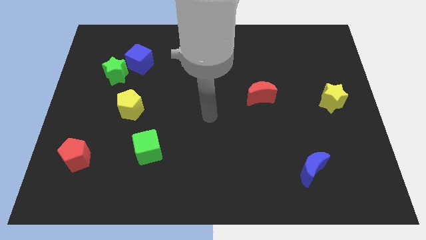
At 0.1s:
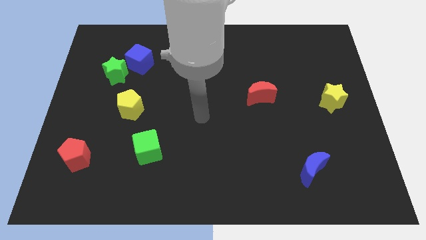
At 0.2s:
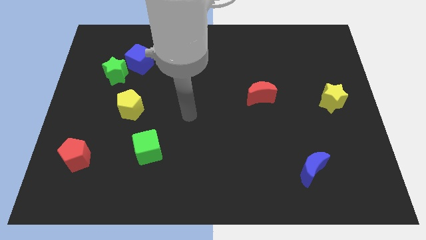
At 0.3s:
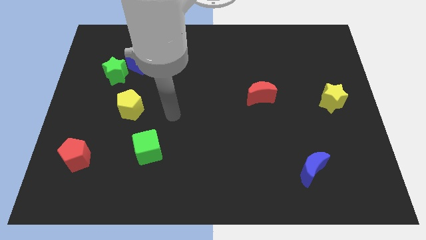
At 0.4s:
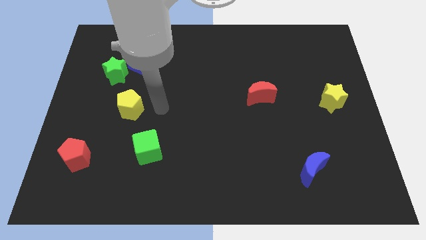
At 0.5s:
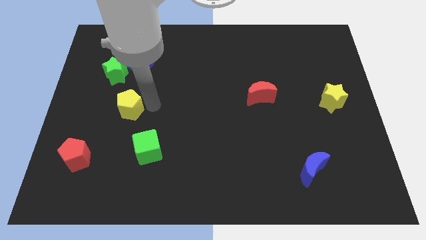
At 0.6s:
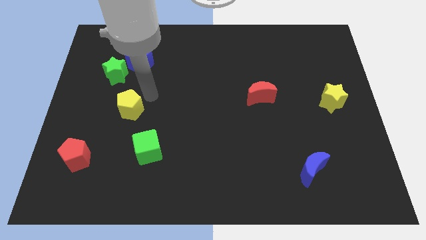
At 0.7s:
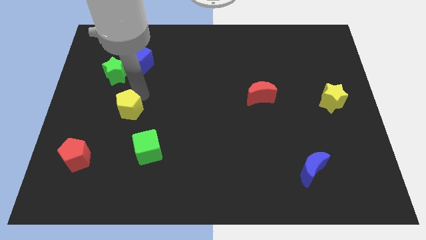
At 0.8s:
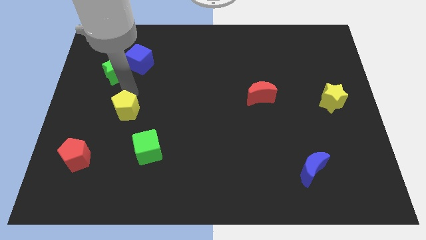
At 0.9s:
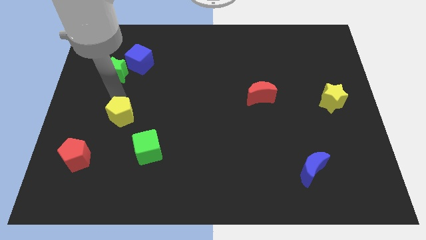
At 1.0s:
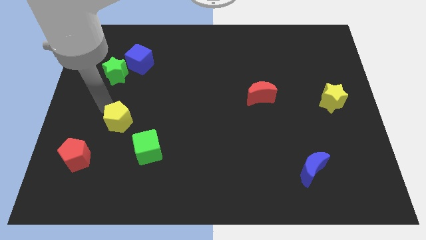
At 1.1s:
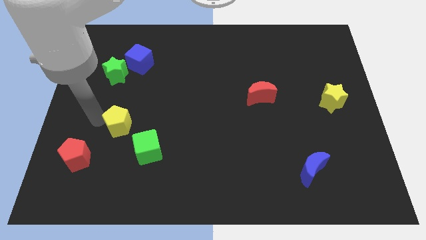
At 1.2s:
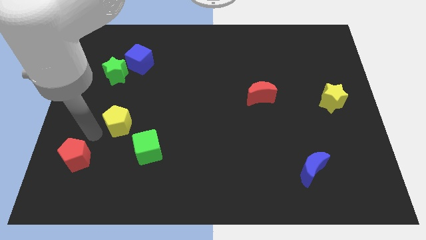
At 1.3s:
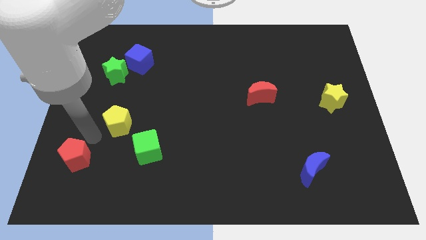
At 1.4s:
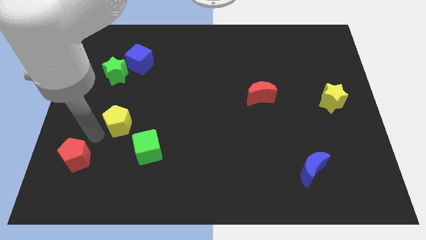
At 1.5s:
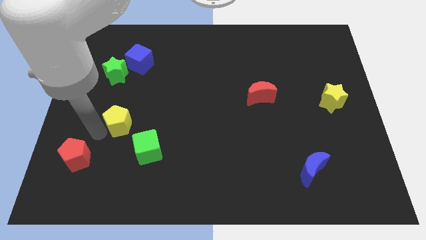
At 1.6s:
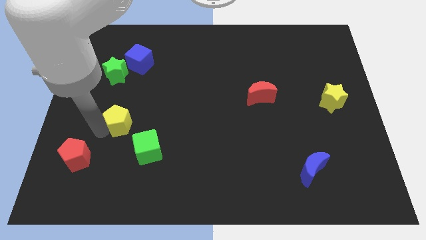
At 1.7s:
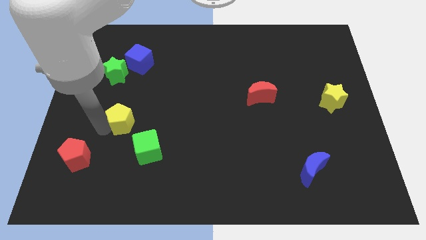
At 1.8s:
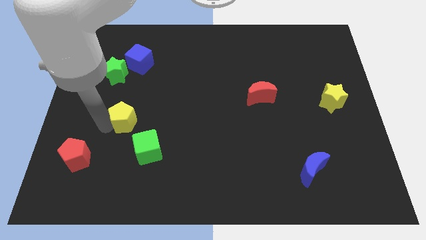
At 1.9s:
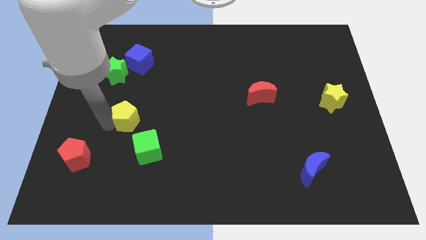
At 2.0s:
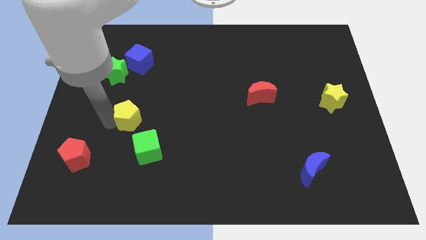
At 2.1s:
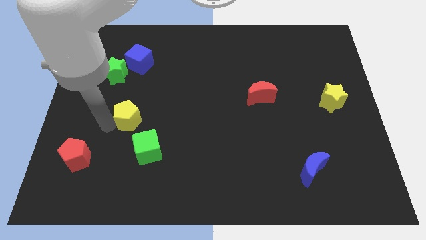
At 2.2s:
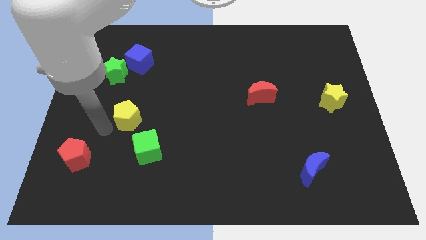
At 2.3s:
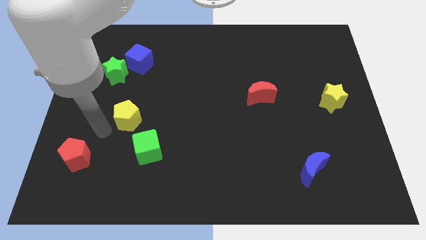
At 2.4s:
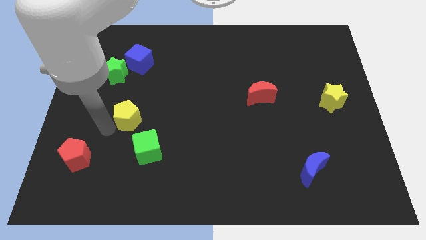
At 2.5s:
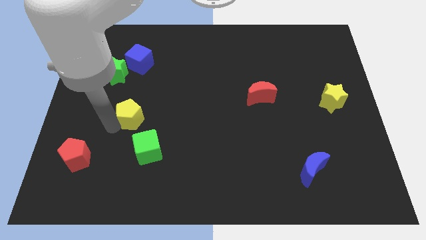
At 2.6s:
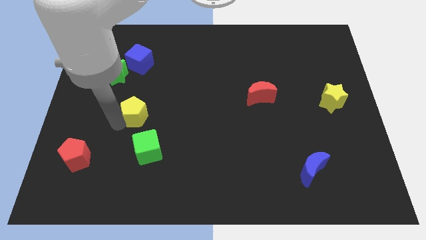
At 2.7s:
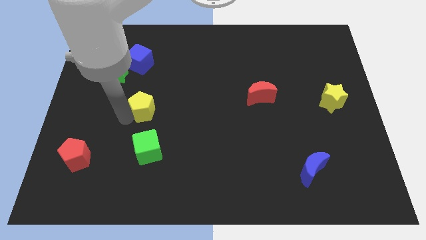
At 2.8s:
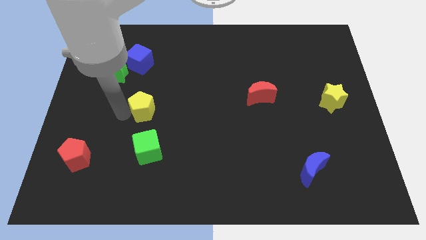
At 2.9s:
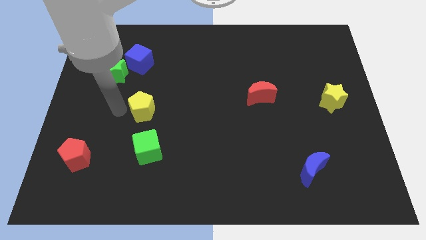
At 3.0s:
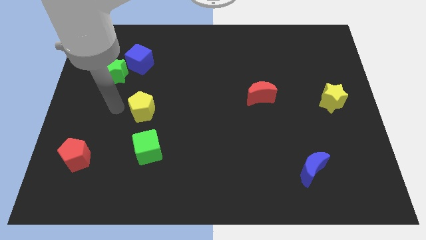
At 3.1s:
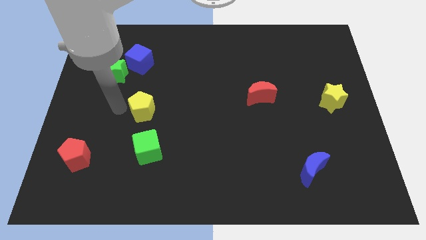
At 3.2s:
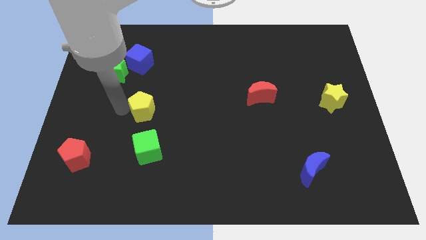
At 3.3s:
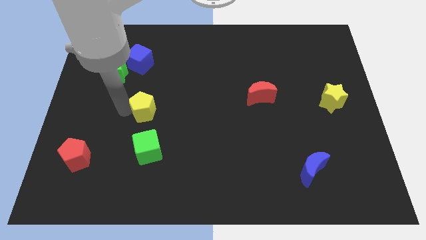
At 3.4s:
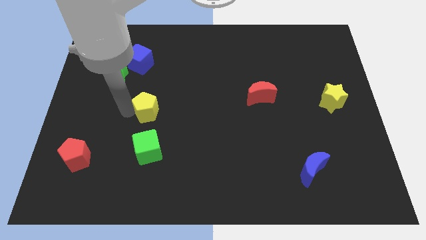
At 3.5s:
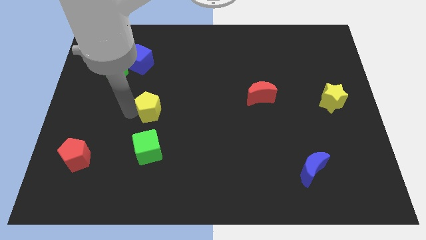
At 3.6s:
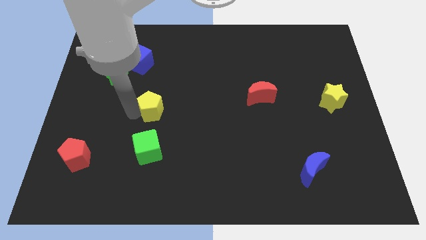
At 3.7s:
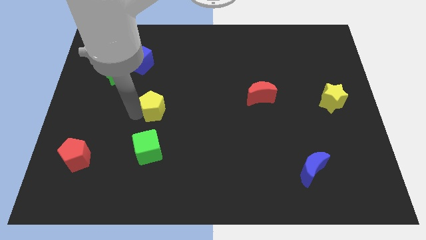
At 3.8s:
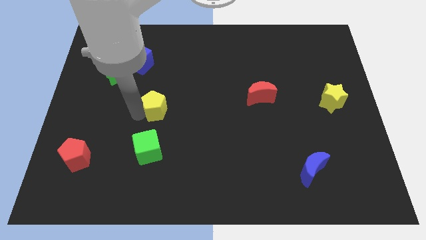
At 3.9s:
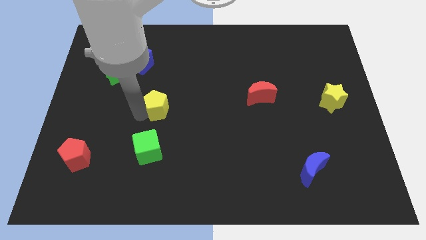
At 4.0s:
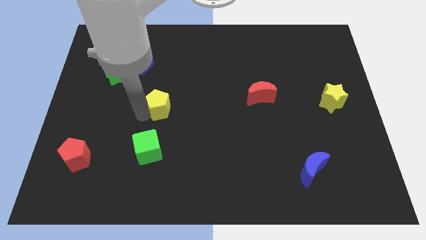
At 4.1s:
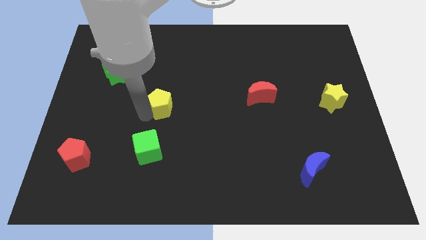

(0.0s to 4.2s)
move the yellow pentagon a little to the right

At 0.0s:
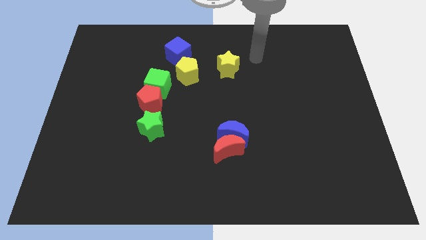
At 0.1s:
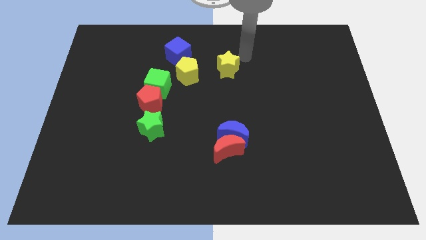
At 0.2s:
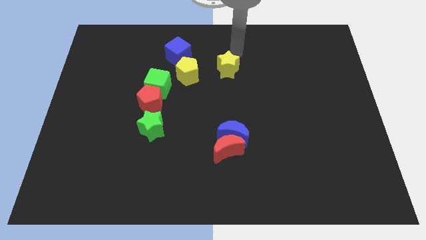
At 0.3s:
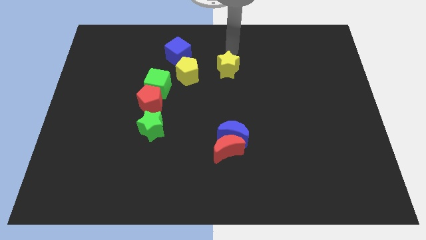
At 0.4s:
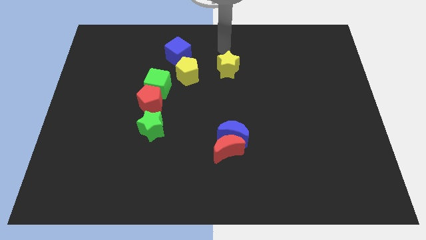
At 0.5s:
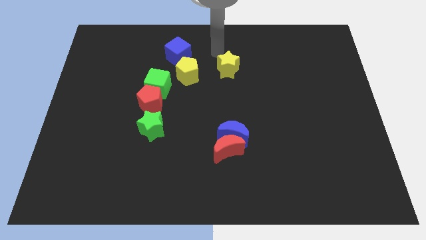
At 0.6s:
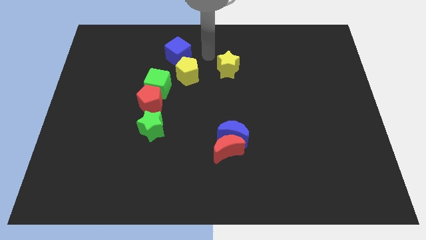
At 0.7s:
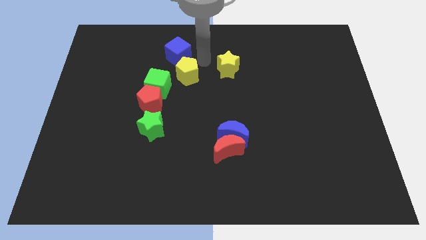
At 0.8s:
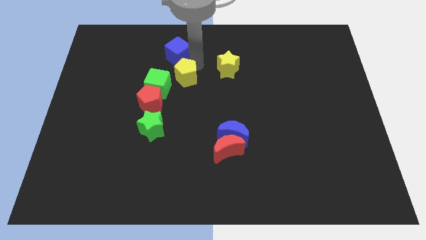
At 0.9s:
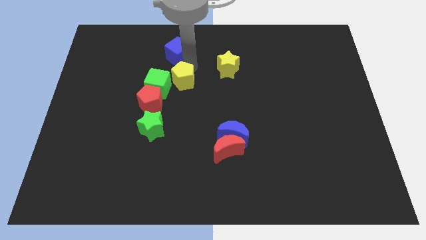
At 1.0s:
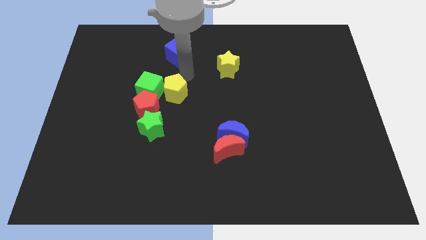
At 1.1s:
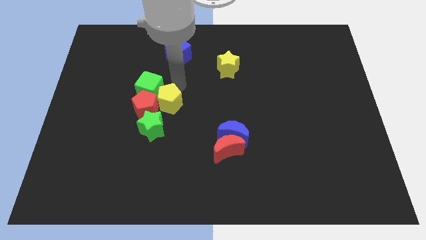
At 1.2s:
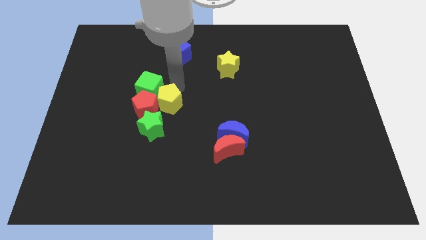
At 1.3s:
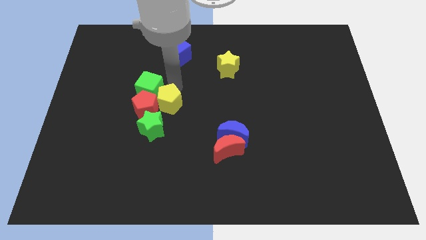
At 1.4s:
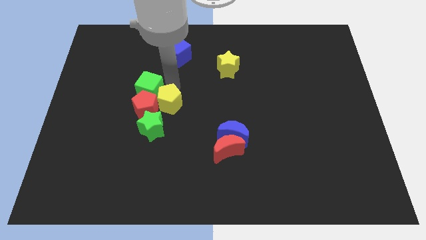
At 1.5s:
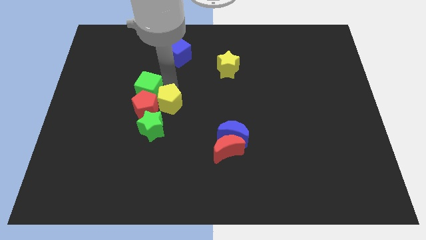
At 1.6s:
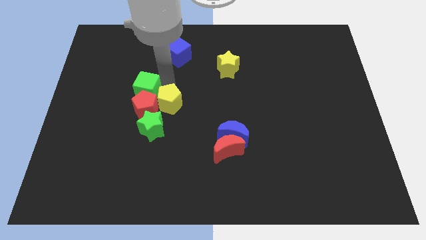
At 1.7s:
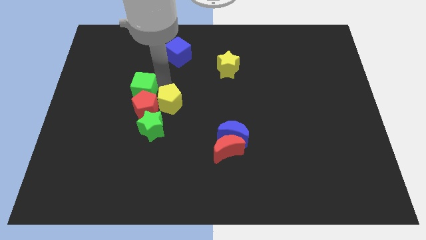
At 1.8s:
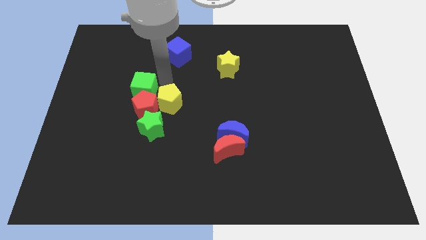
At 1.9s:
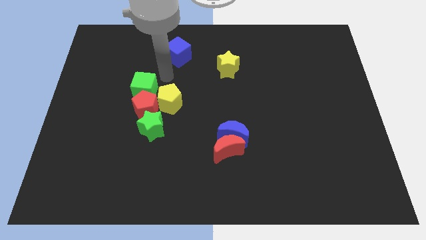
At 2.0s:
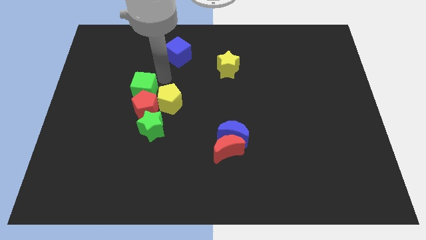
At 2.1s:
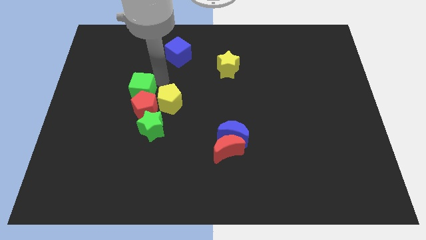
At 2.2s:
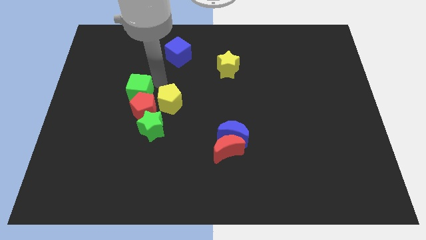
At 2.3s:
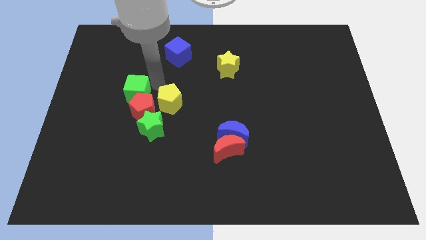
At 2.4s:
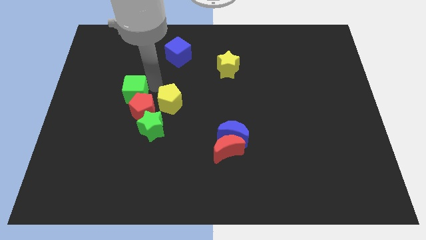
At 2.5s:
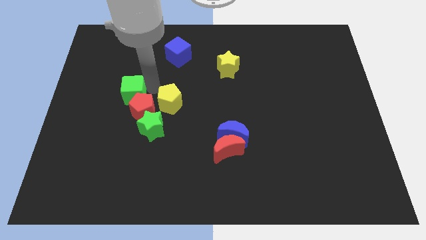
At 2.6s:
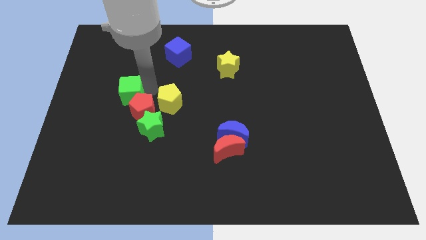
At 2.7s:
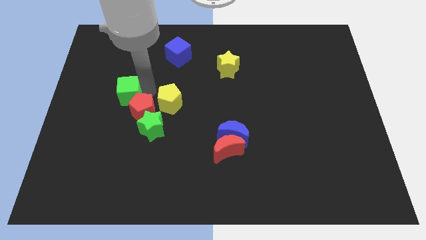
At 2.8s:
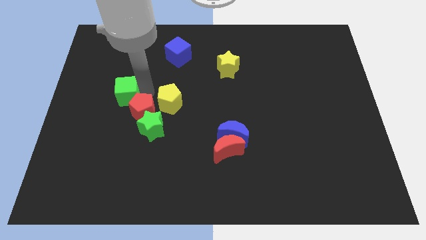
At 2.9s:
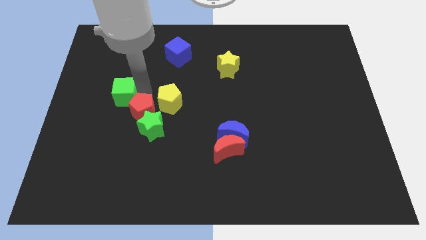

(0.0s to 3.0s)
slightly slide the green cube downwards and left

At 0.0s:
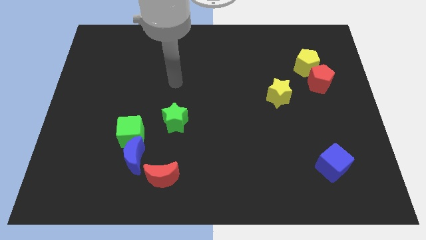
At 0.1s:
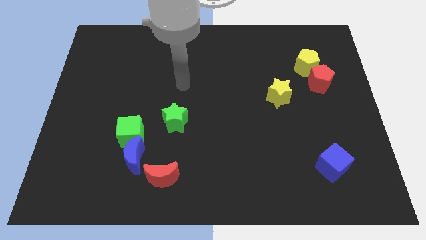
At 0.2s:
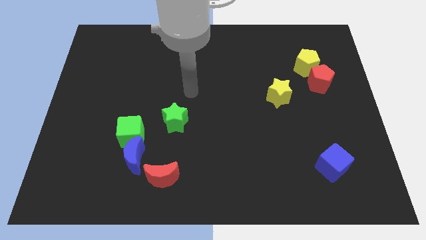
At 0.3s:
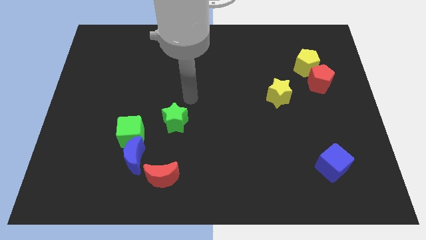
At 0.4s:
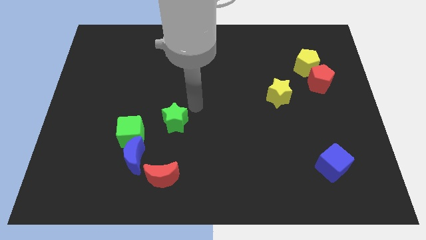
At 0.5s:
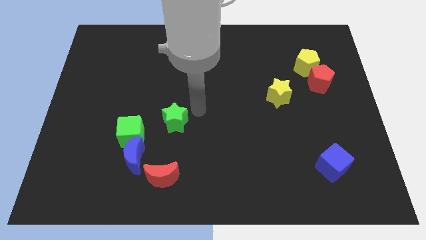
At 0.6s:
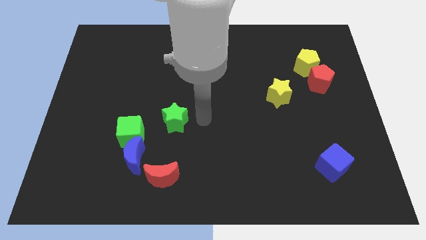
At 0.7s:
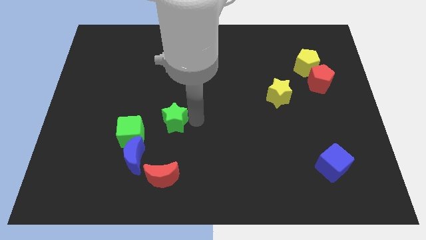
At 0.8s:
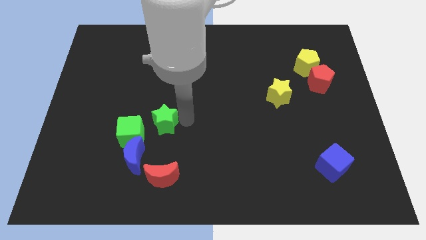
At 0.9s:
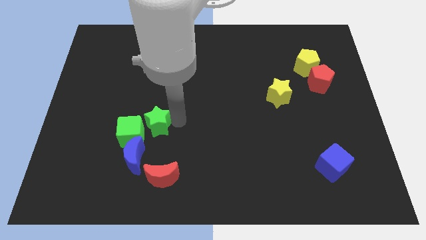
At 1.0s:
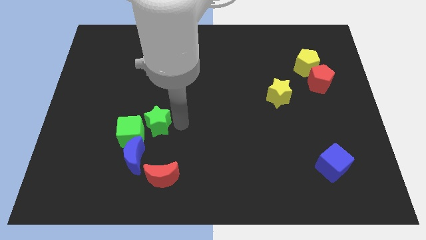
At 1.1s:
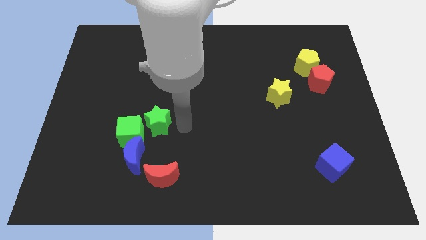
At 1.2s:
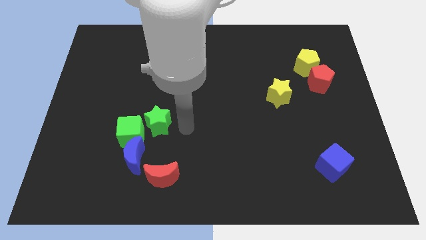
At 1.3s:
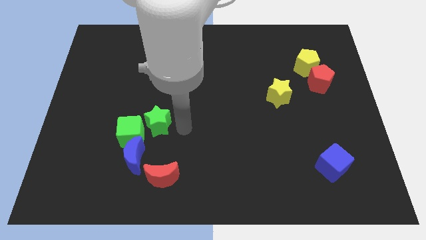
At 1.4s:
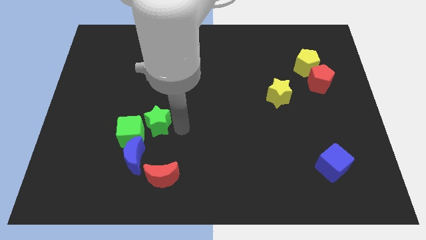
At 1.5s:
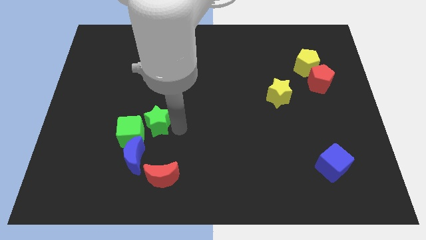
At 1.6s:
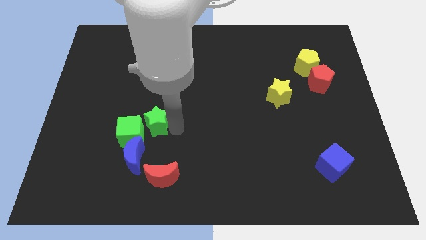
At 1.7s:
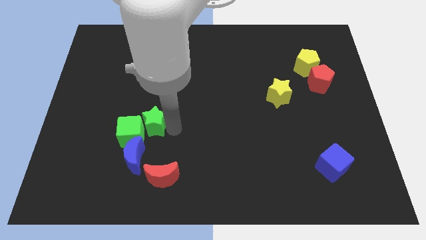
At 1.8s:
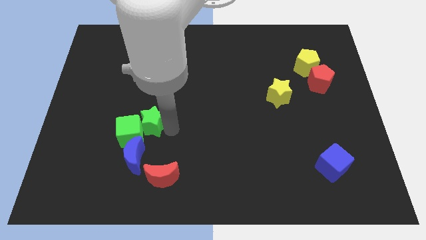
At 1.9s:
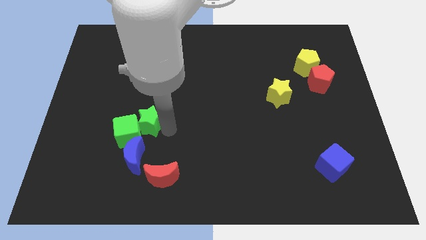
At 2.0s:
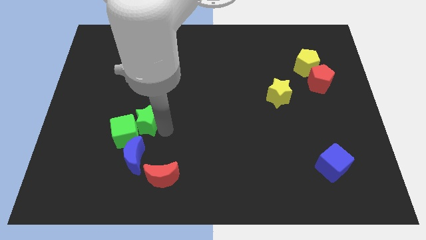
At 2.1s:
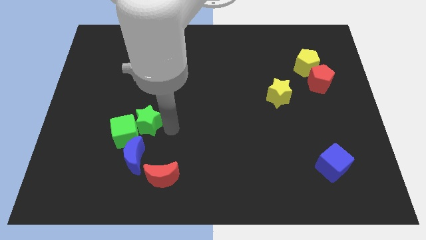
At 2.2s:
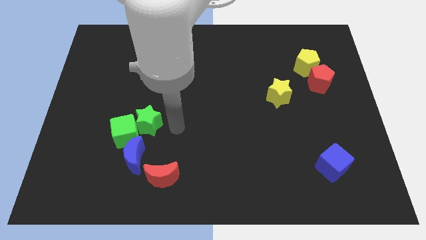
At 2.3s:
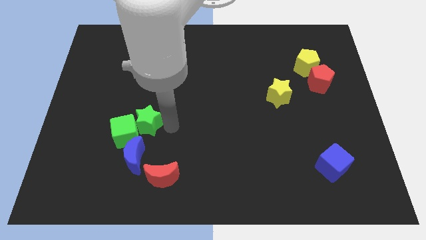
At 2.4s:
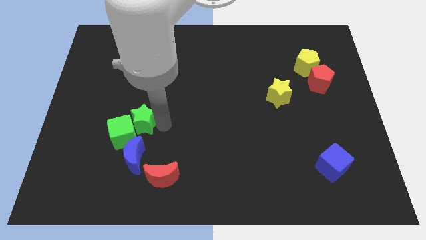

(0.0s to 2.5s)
move the green star to the left slightly
